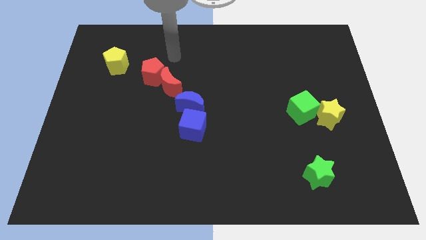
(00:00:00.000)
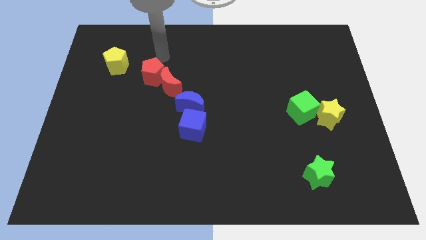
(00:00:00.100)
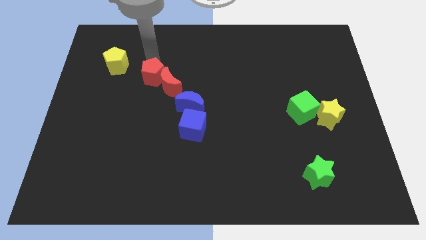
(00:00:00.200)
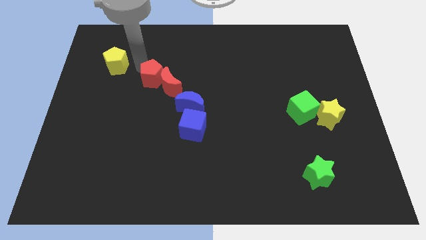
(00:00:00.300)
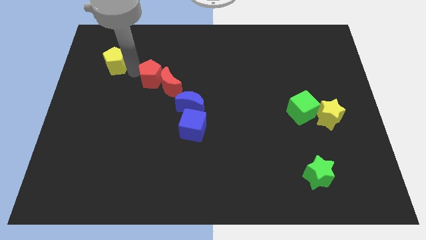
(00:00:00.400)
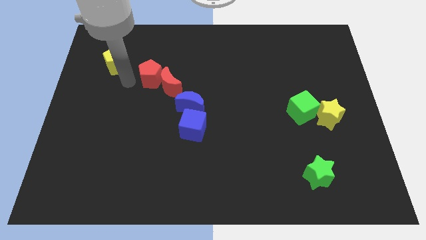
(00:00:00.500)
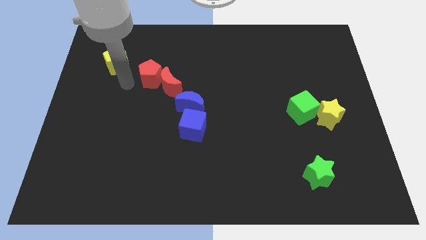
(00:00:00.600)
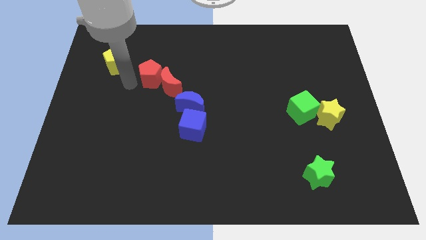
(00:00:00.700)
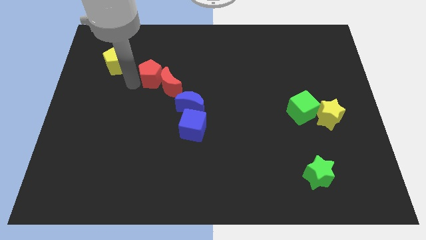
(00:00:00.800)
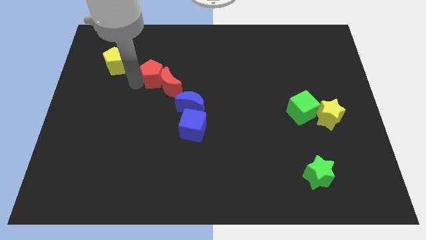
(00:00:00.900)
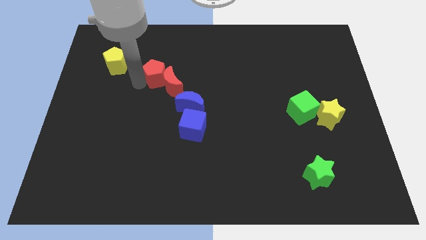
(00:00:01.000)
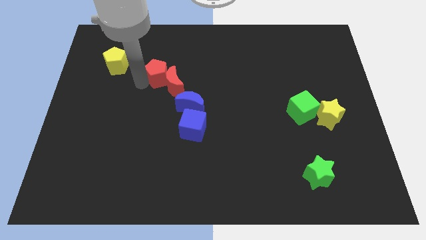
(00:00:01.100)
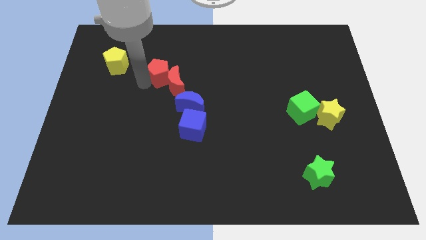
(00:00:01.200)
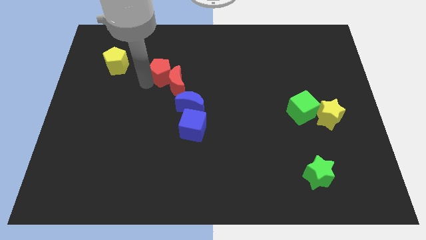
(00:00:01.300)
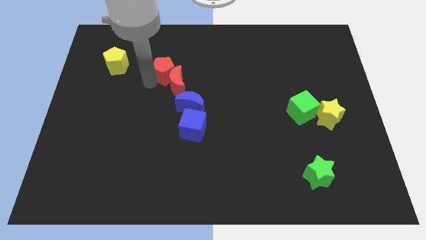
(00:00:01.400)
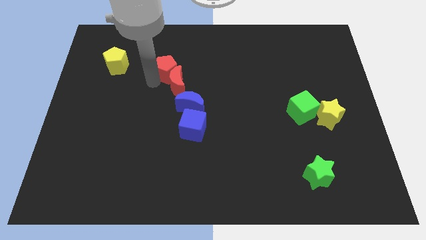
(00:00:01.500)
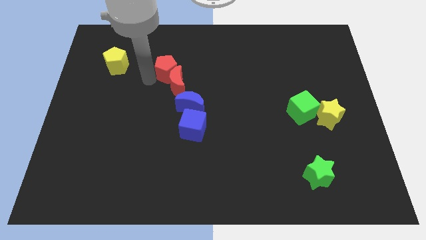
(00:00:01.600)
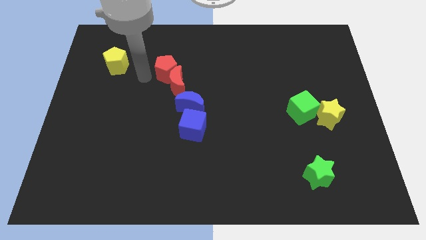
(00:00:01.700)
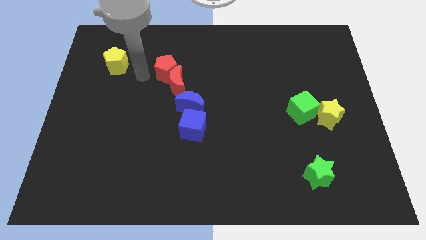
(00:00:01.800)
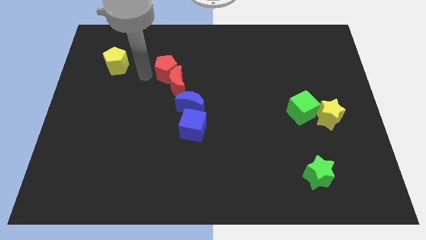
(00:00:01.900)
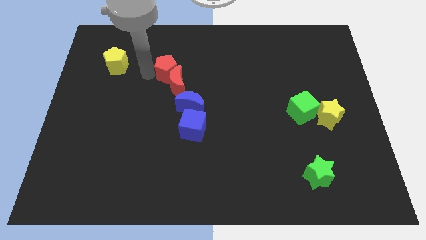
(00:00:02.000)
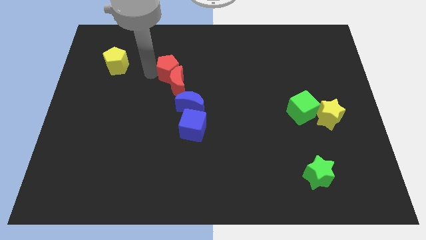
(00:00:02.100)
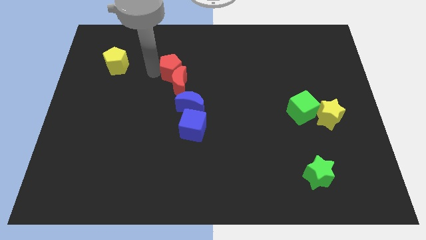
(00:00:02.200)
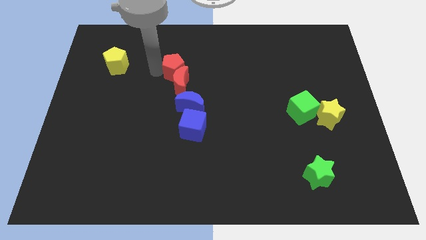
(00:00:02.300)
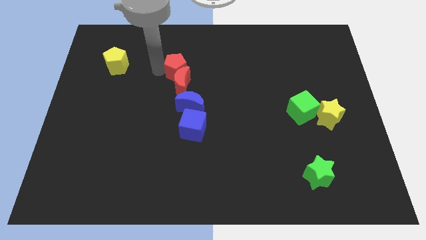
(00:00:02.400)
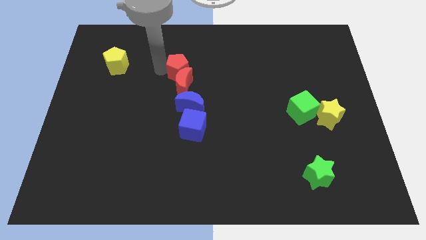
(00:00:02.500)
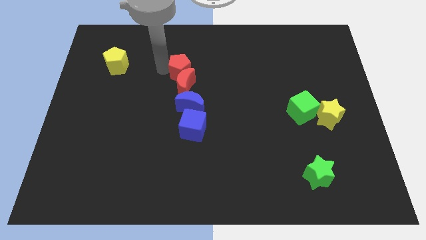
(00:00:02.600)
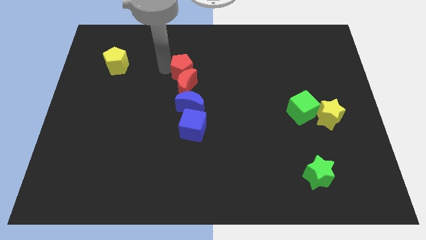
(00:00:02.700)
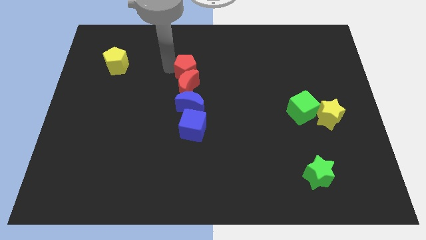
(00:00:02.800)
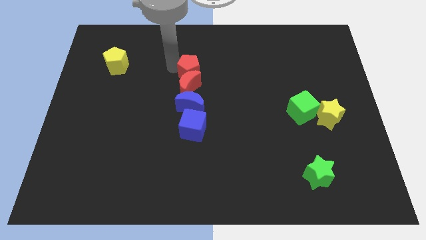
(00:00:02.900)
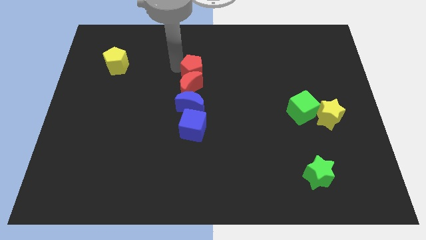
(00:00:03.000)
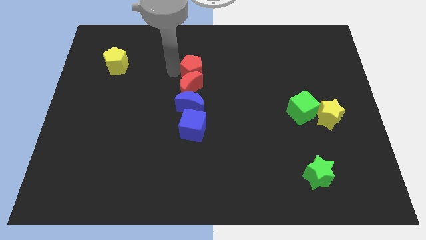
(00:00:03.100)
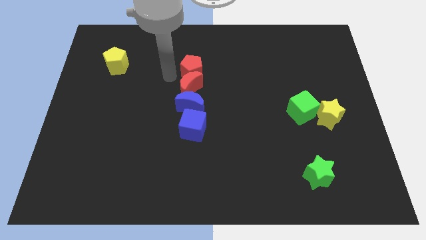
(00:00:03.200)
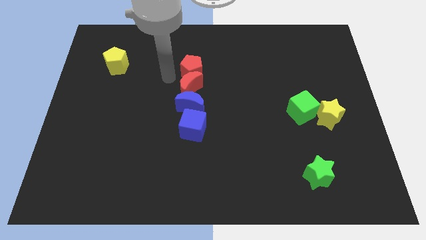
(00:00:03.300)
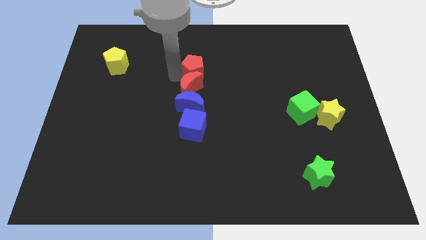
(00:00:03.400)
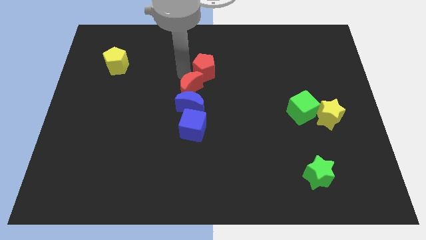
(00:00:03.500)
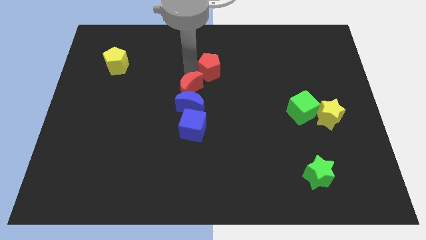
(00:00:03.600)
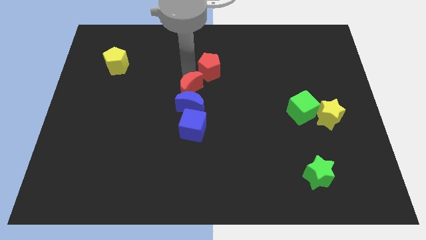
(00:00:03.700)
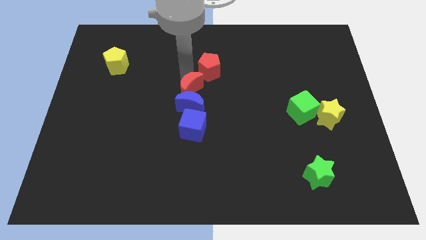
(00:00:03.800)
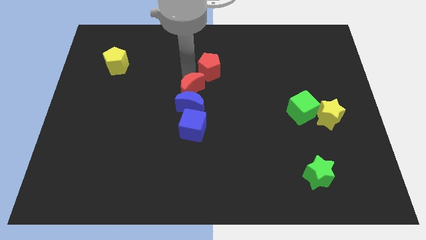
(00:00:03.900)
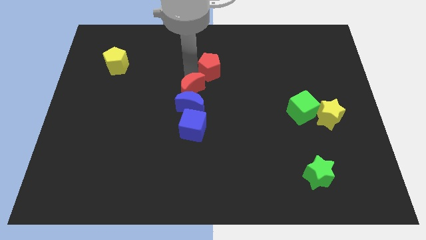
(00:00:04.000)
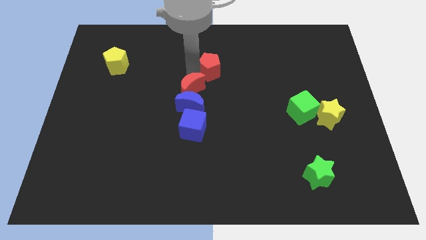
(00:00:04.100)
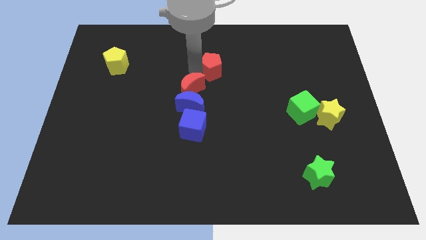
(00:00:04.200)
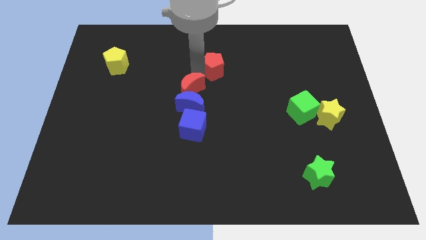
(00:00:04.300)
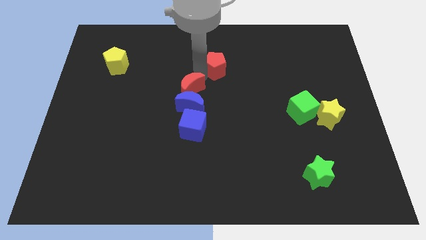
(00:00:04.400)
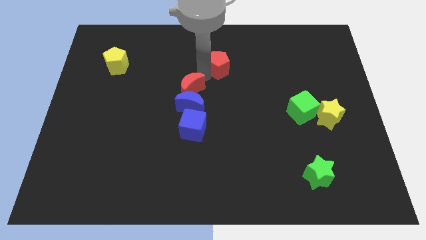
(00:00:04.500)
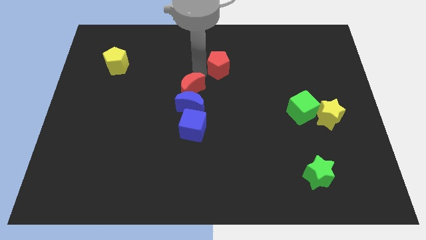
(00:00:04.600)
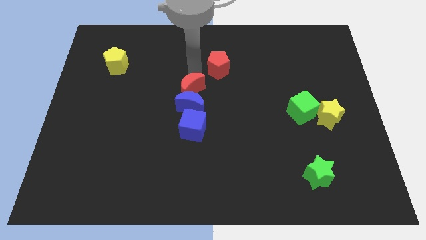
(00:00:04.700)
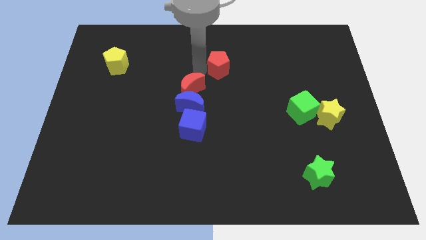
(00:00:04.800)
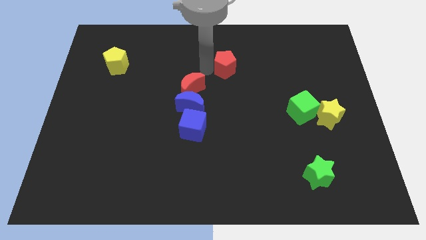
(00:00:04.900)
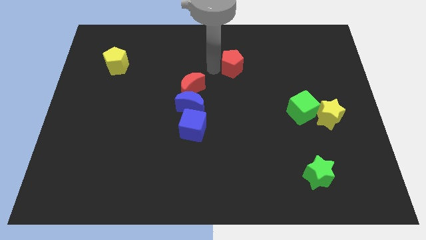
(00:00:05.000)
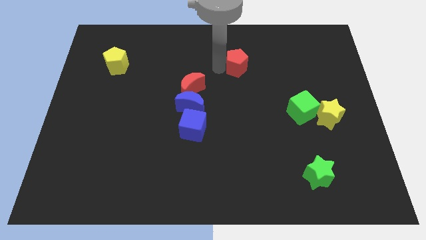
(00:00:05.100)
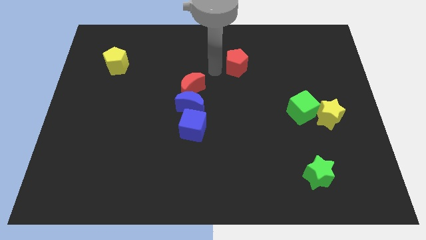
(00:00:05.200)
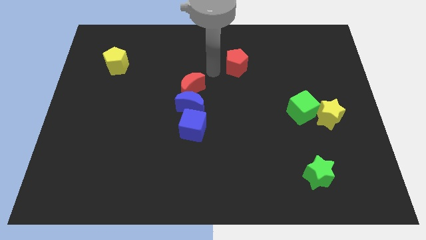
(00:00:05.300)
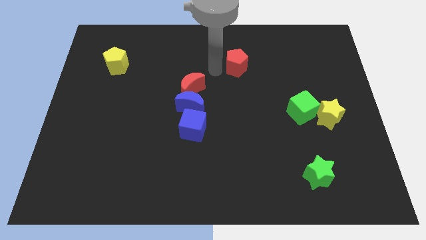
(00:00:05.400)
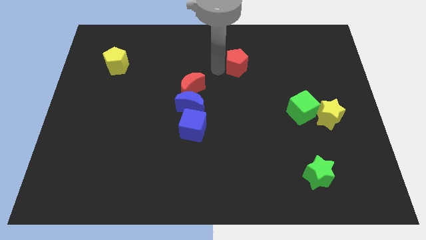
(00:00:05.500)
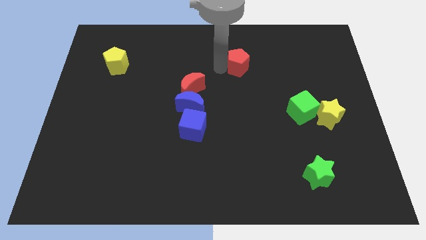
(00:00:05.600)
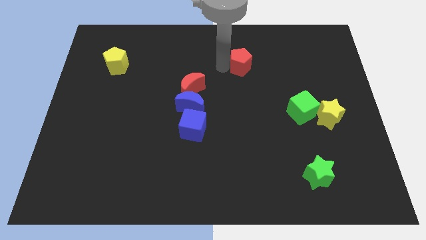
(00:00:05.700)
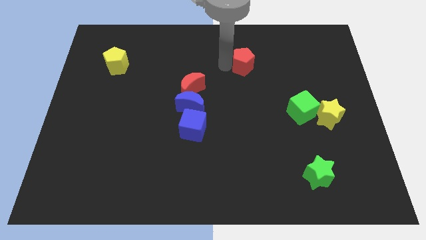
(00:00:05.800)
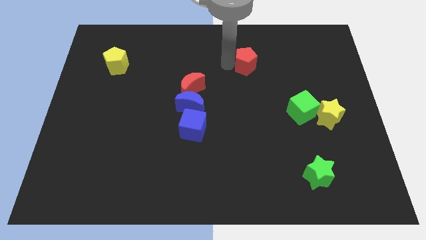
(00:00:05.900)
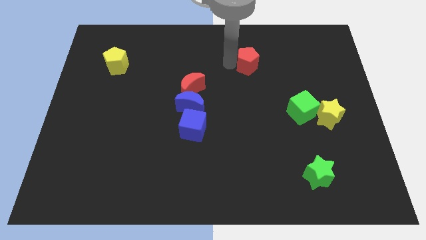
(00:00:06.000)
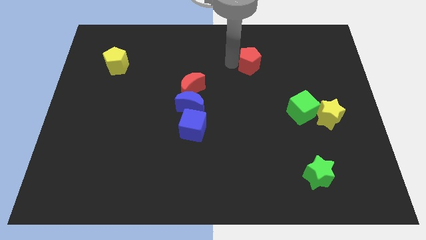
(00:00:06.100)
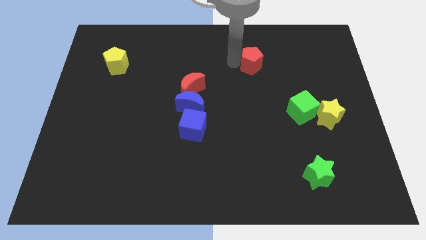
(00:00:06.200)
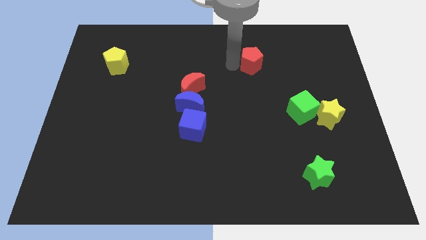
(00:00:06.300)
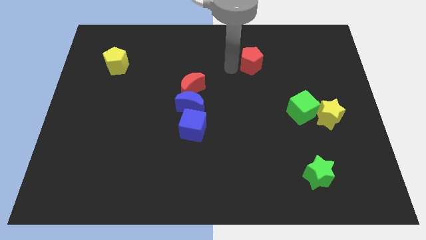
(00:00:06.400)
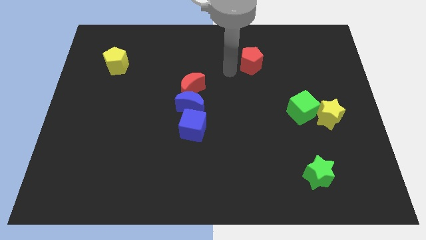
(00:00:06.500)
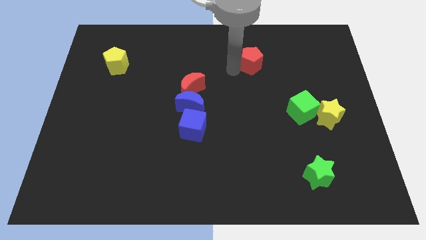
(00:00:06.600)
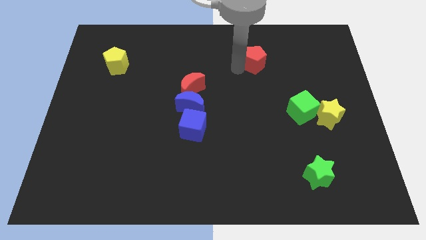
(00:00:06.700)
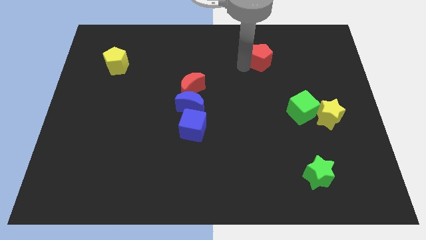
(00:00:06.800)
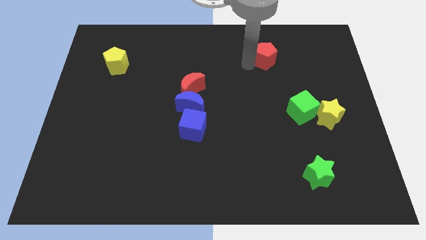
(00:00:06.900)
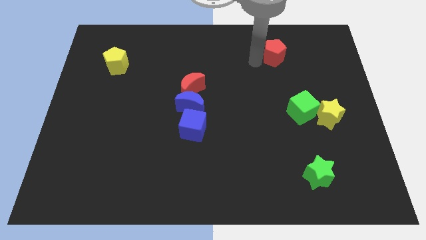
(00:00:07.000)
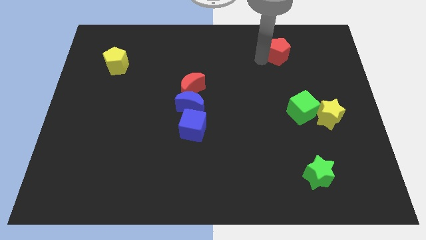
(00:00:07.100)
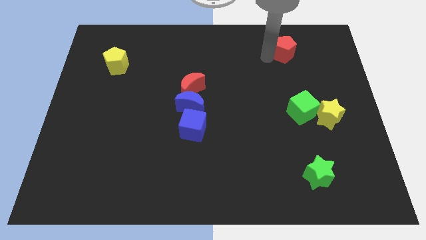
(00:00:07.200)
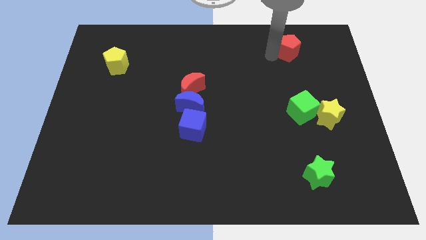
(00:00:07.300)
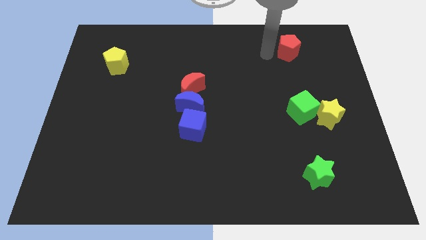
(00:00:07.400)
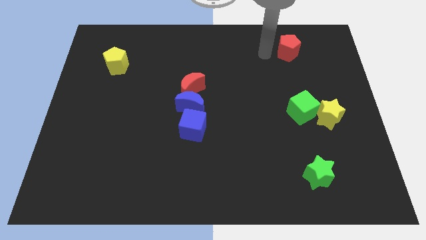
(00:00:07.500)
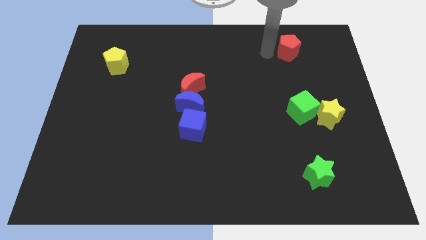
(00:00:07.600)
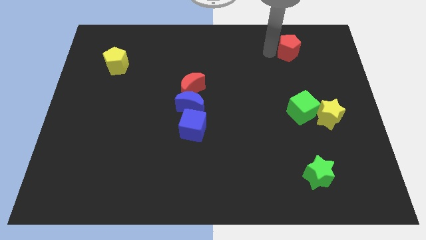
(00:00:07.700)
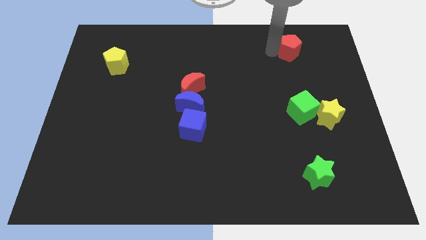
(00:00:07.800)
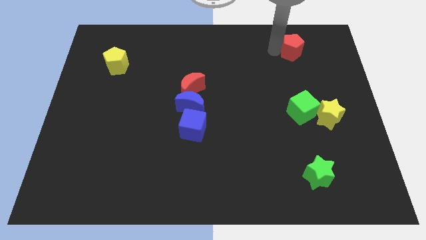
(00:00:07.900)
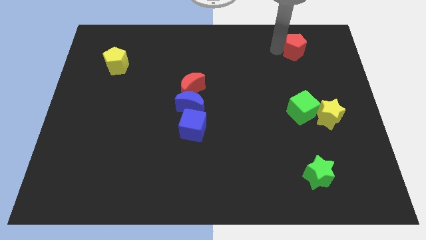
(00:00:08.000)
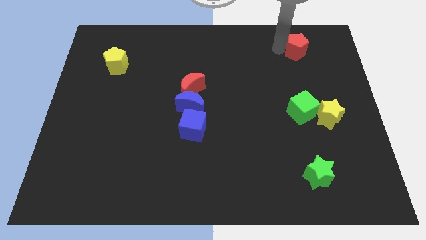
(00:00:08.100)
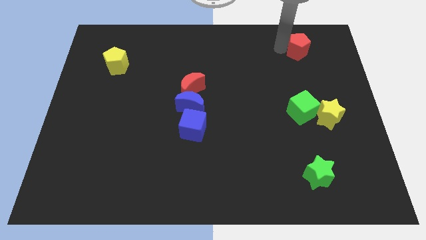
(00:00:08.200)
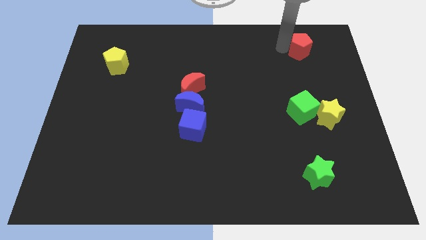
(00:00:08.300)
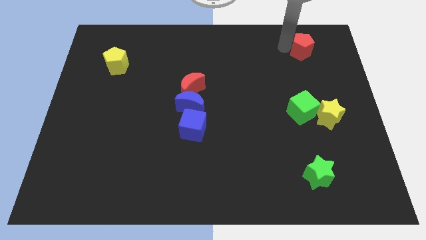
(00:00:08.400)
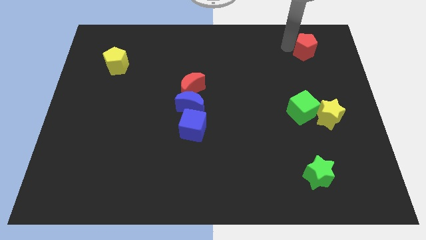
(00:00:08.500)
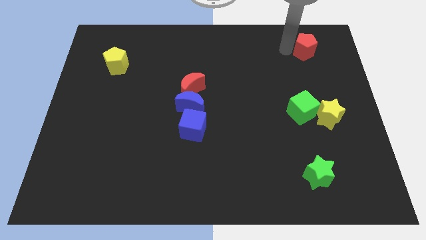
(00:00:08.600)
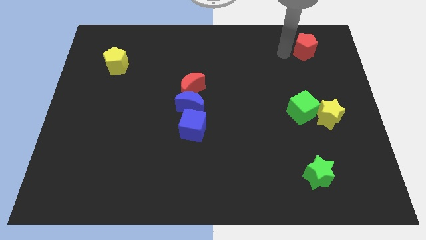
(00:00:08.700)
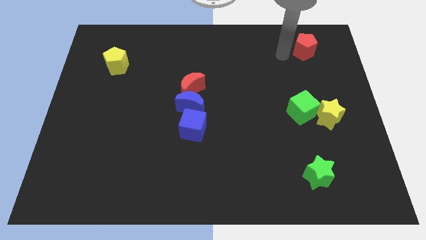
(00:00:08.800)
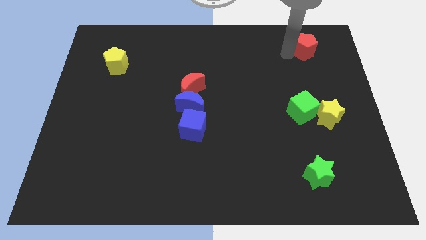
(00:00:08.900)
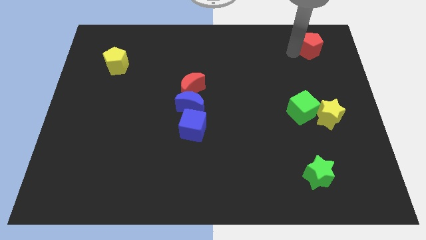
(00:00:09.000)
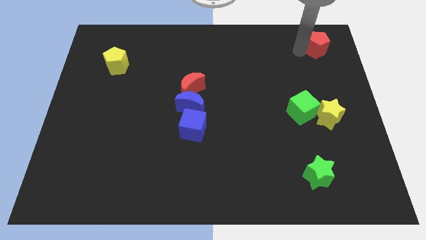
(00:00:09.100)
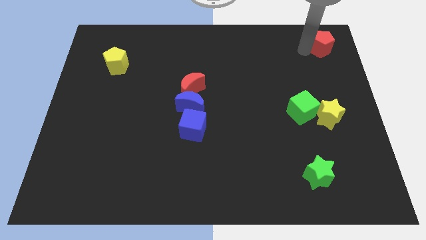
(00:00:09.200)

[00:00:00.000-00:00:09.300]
push the red pentagon to the upper right corner
